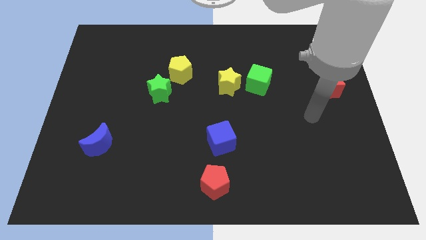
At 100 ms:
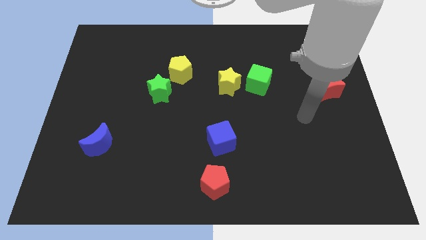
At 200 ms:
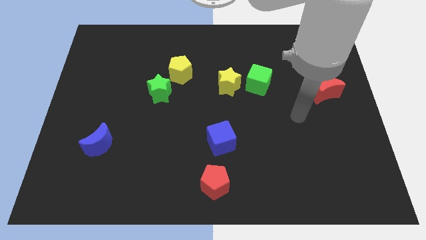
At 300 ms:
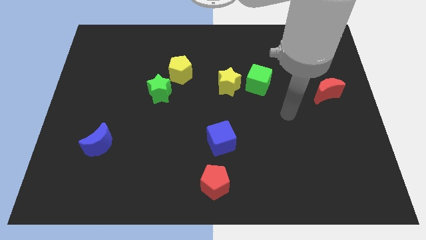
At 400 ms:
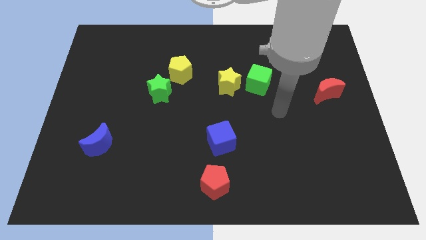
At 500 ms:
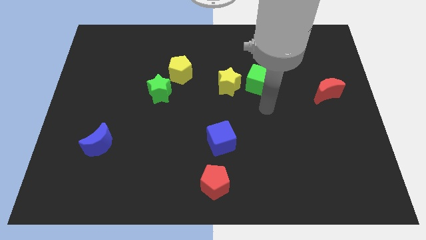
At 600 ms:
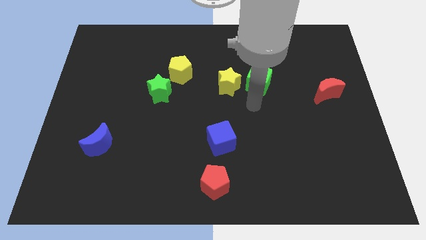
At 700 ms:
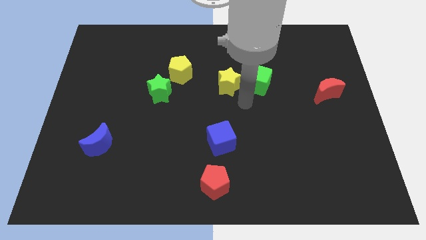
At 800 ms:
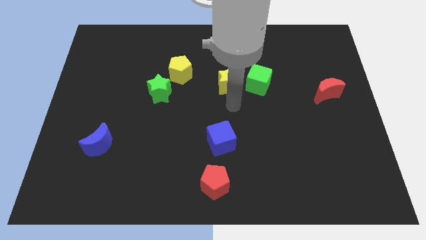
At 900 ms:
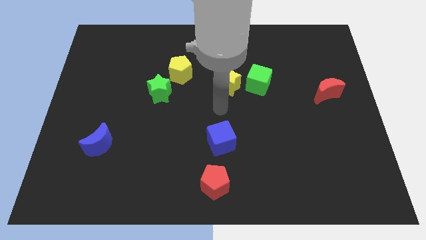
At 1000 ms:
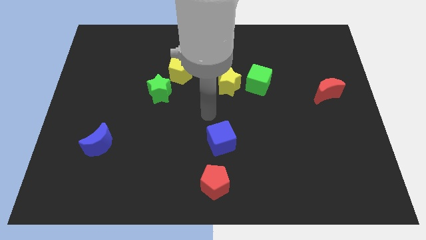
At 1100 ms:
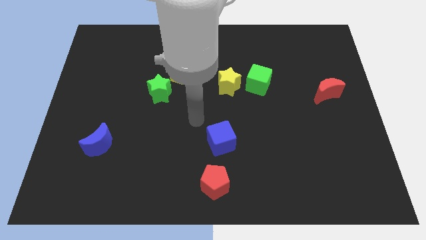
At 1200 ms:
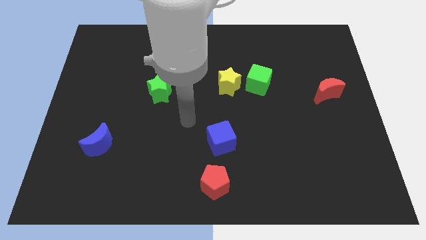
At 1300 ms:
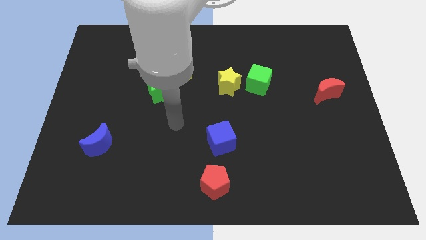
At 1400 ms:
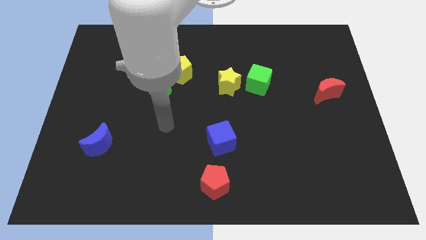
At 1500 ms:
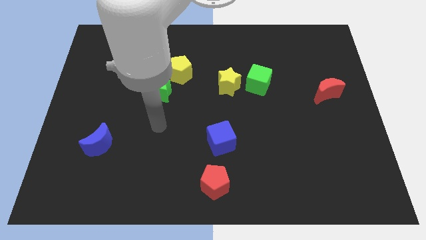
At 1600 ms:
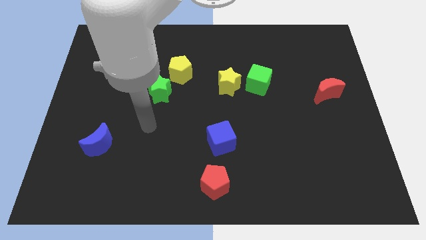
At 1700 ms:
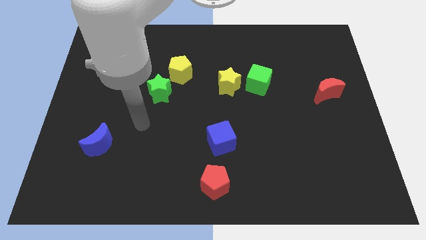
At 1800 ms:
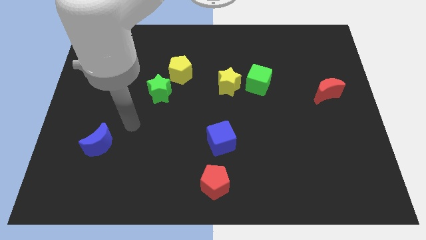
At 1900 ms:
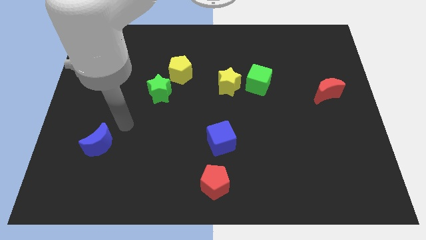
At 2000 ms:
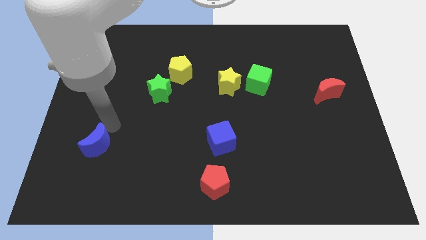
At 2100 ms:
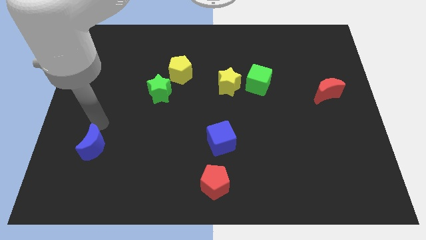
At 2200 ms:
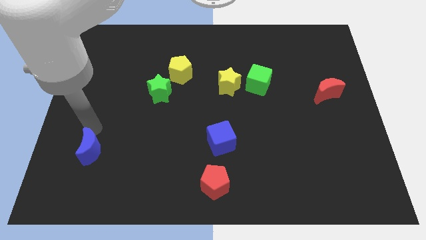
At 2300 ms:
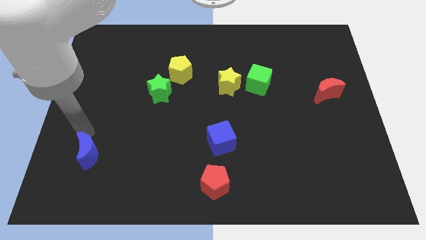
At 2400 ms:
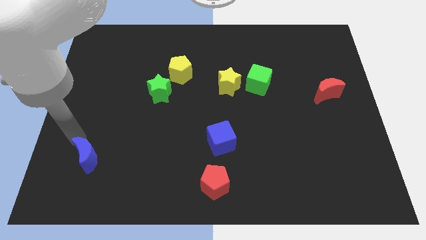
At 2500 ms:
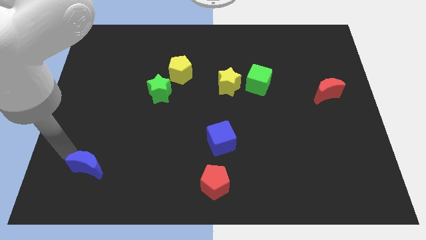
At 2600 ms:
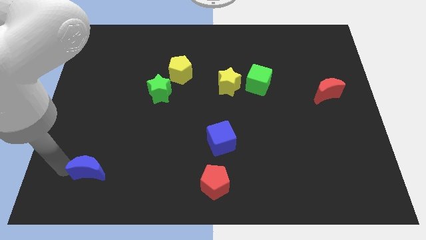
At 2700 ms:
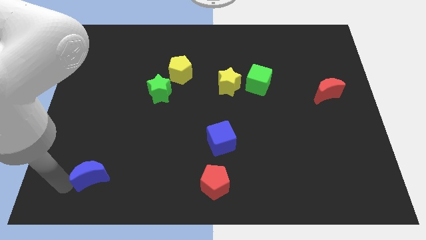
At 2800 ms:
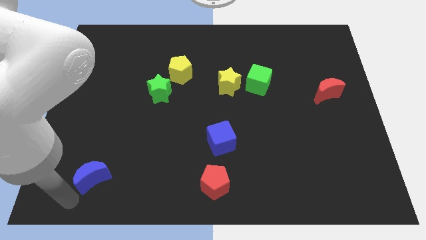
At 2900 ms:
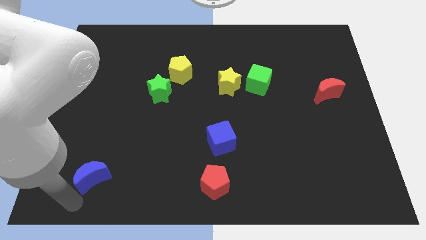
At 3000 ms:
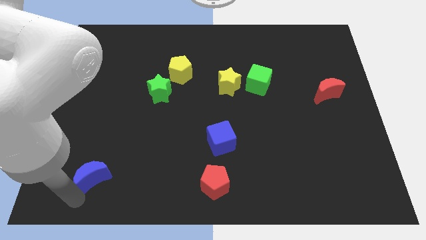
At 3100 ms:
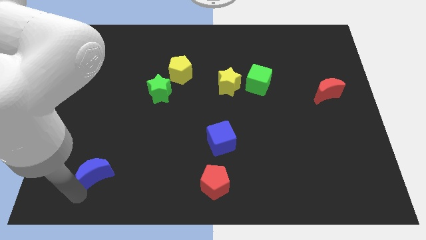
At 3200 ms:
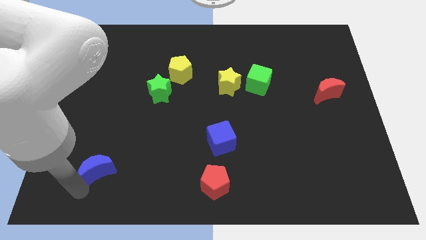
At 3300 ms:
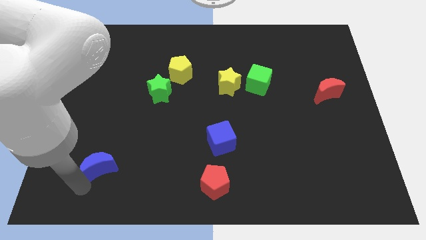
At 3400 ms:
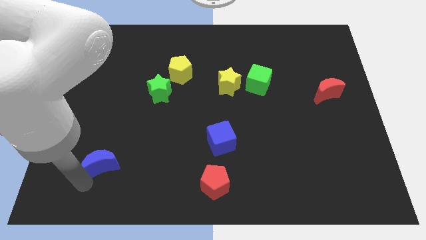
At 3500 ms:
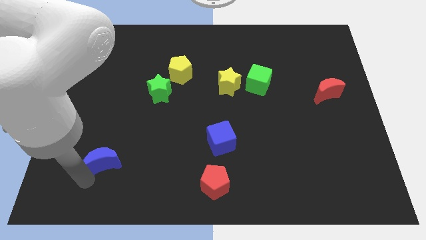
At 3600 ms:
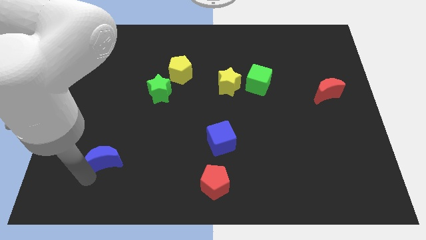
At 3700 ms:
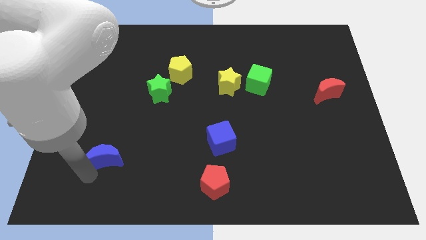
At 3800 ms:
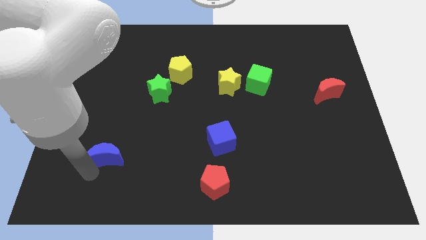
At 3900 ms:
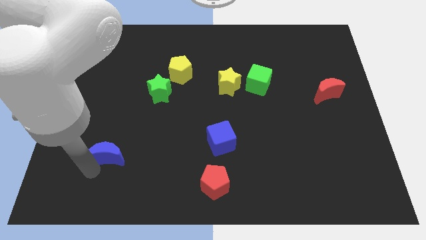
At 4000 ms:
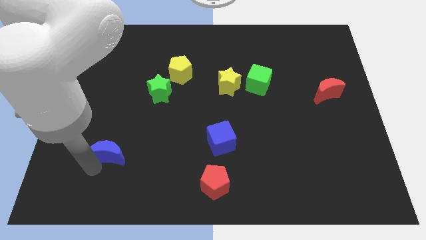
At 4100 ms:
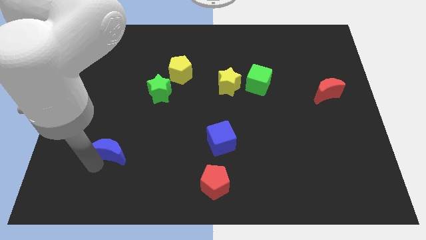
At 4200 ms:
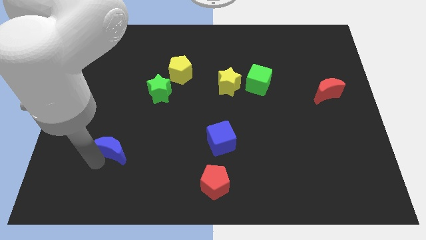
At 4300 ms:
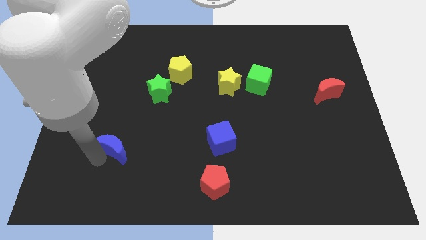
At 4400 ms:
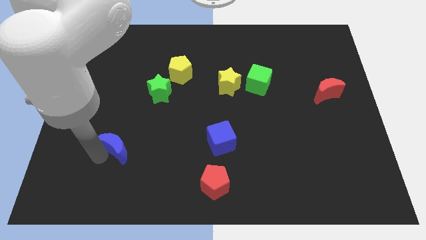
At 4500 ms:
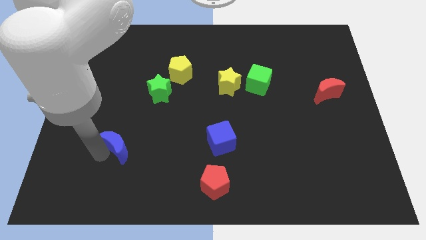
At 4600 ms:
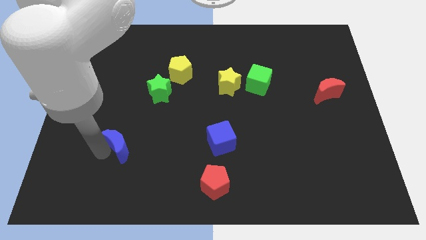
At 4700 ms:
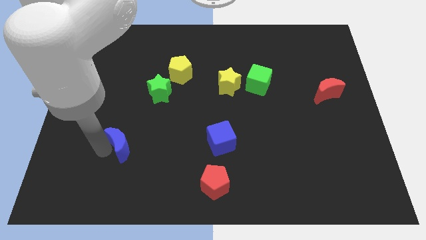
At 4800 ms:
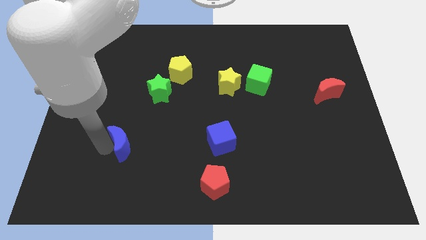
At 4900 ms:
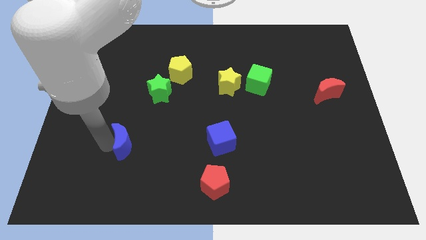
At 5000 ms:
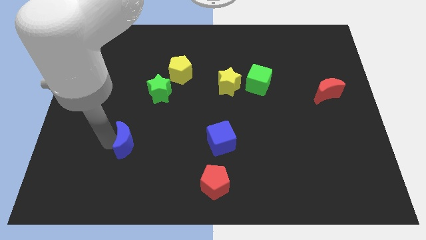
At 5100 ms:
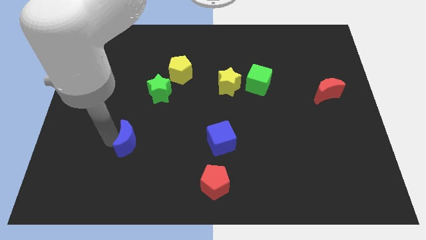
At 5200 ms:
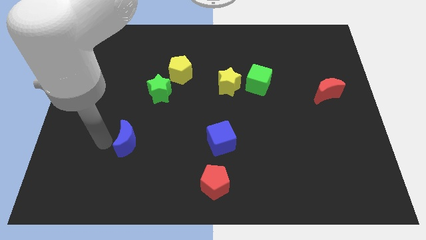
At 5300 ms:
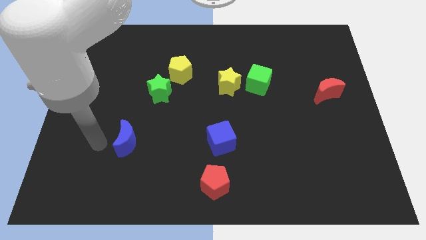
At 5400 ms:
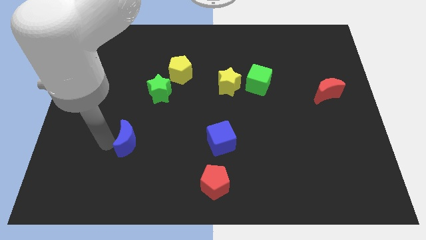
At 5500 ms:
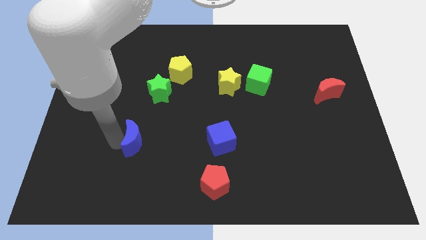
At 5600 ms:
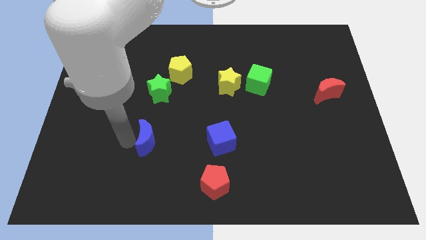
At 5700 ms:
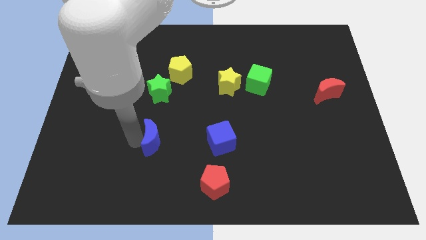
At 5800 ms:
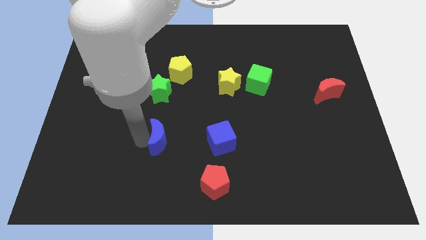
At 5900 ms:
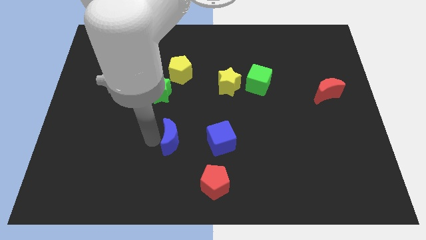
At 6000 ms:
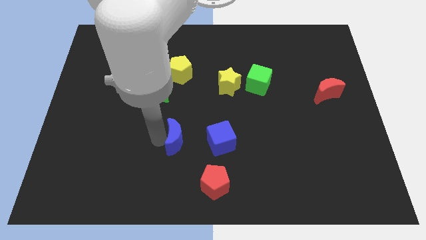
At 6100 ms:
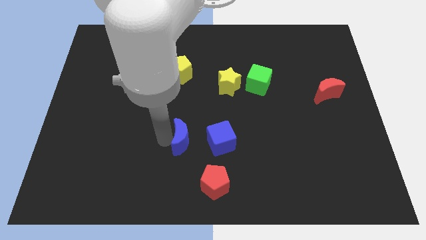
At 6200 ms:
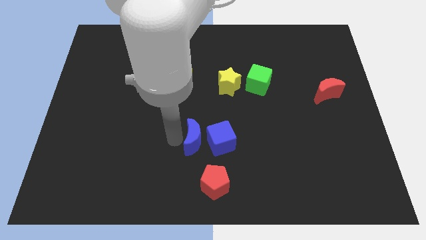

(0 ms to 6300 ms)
slide the blue moon towards the blue cube
